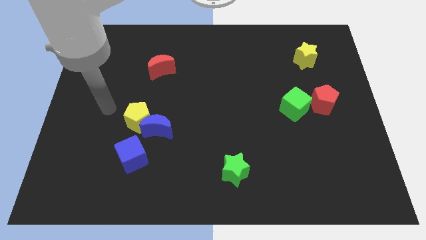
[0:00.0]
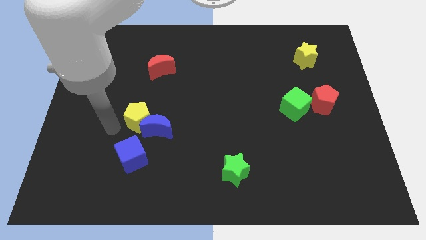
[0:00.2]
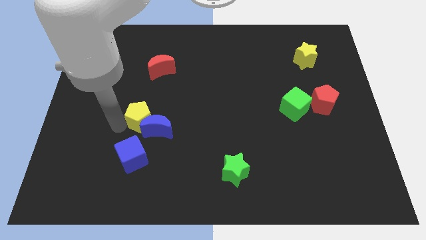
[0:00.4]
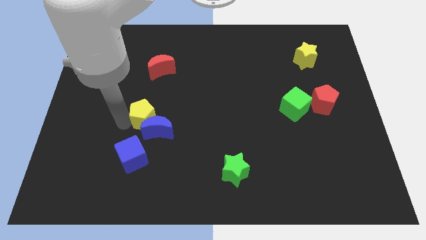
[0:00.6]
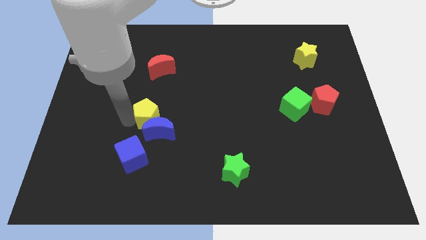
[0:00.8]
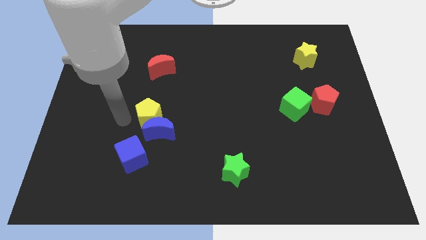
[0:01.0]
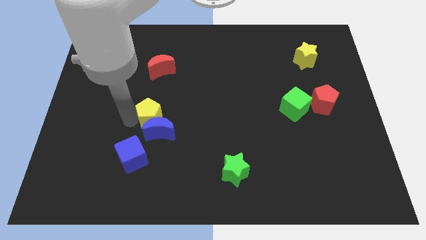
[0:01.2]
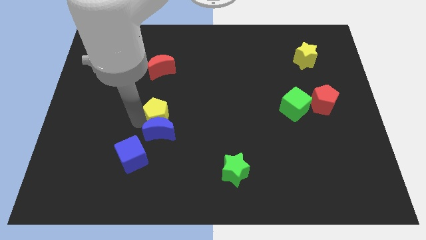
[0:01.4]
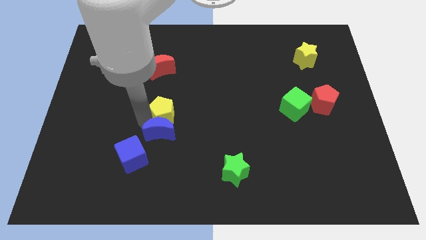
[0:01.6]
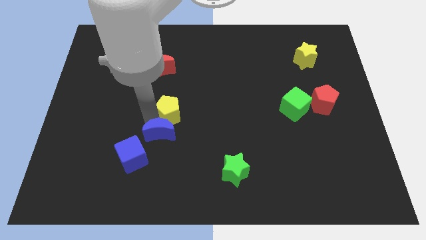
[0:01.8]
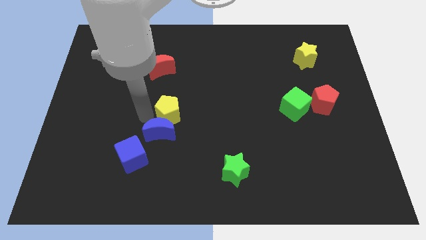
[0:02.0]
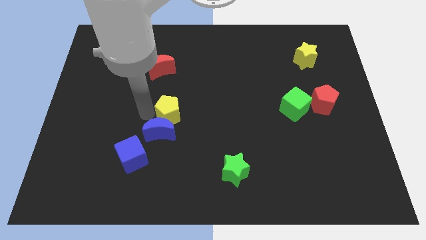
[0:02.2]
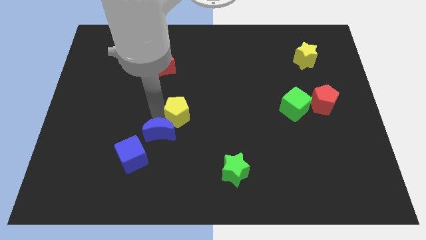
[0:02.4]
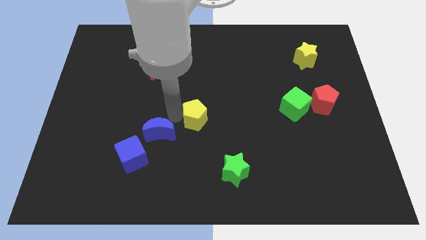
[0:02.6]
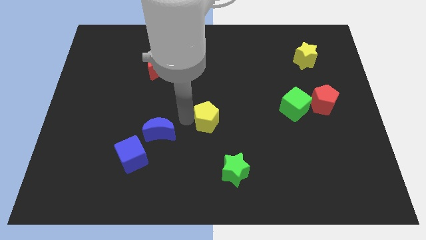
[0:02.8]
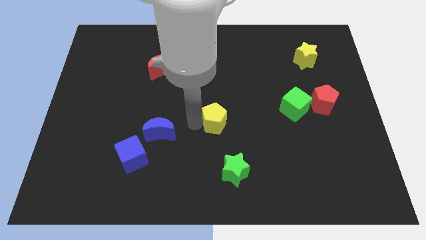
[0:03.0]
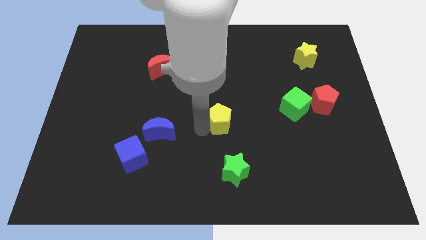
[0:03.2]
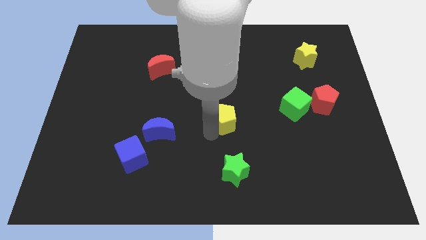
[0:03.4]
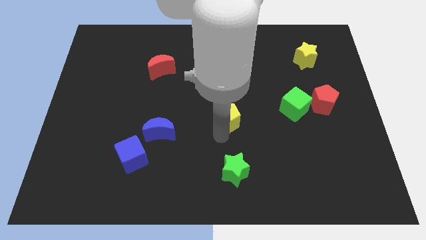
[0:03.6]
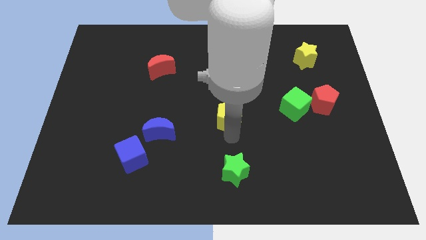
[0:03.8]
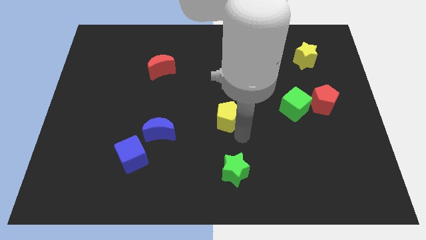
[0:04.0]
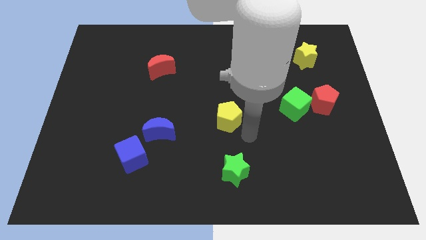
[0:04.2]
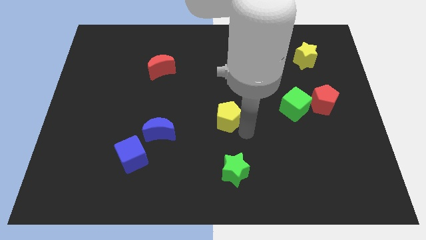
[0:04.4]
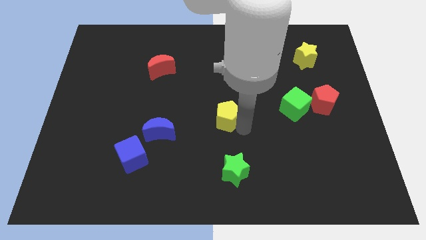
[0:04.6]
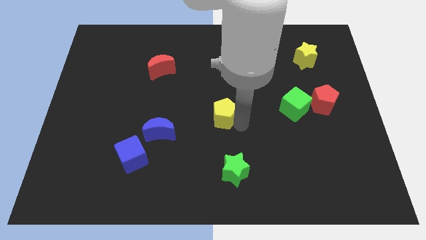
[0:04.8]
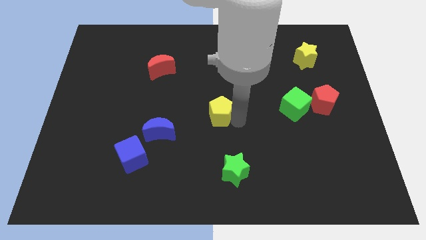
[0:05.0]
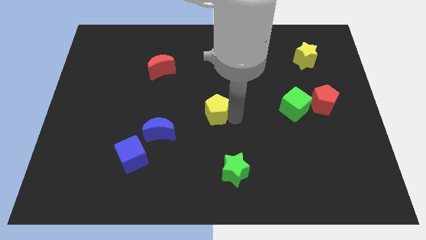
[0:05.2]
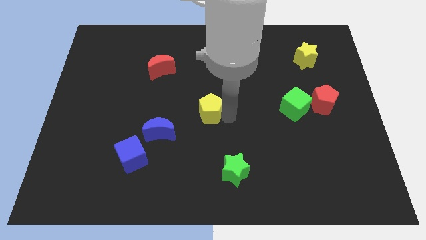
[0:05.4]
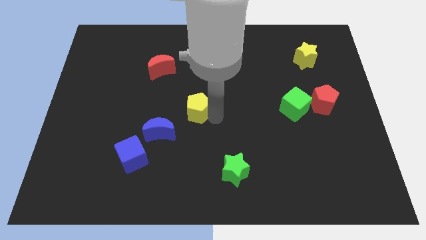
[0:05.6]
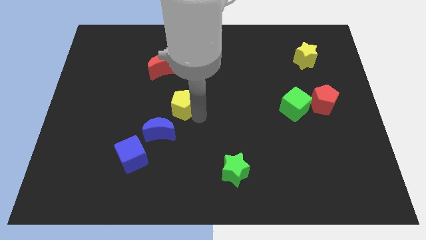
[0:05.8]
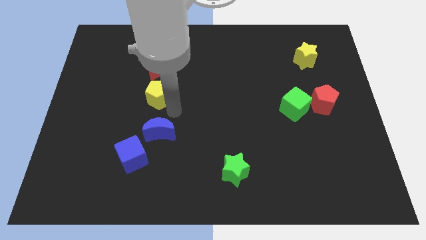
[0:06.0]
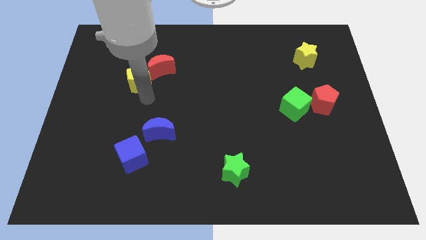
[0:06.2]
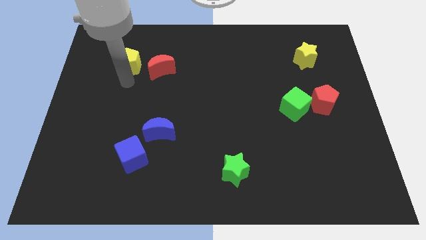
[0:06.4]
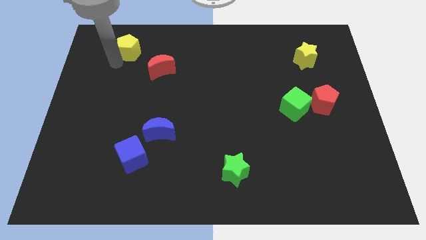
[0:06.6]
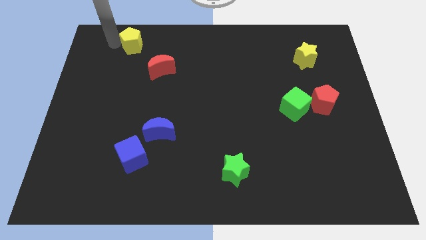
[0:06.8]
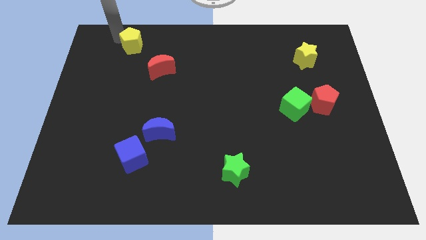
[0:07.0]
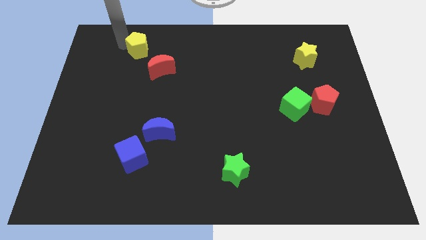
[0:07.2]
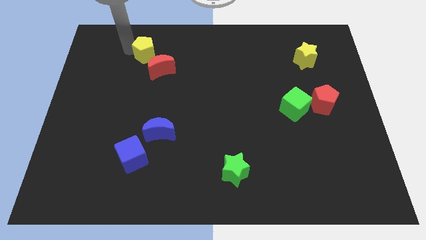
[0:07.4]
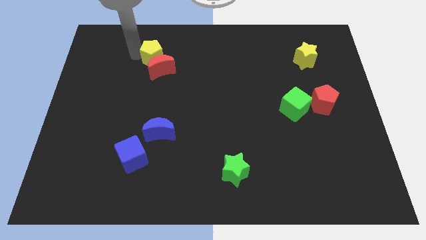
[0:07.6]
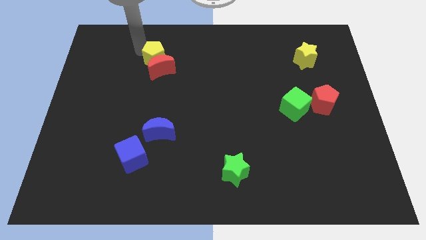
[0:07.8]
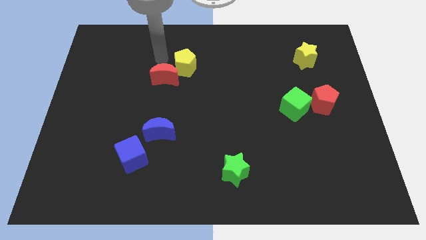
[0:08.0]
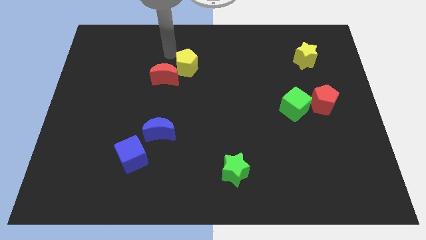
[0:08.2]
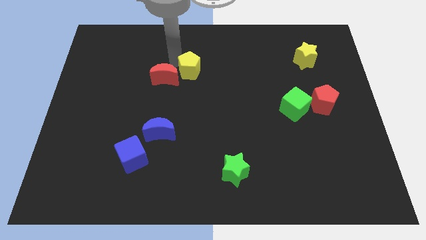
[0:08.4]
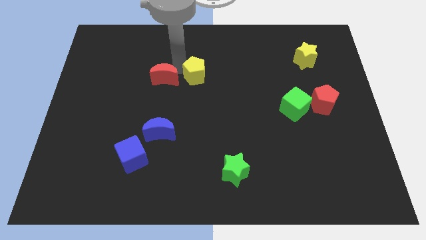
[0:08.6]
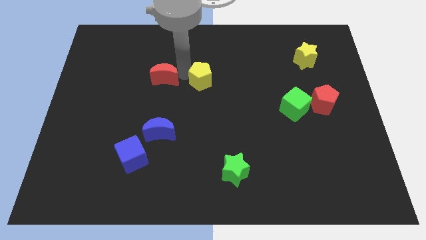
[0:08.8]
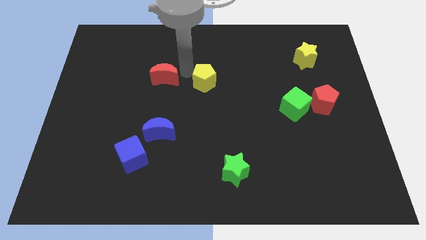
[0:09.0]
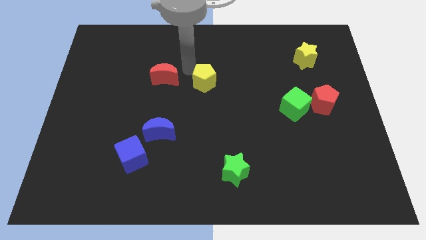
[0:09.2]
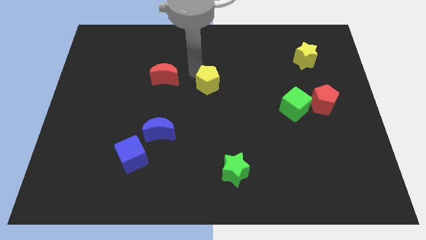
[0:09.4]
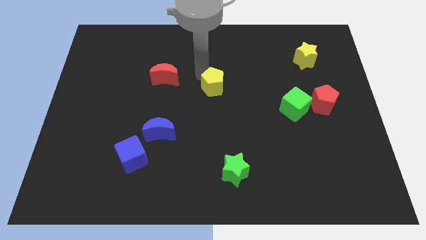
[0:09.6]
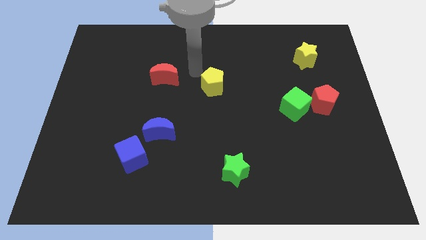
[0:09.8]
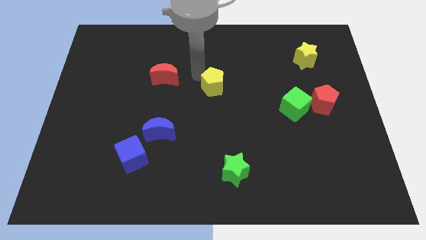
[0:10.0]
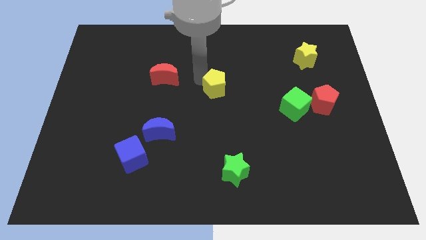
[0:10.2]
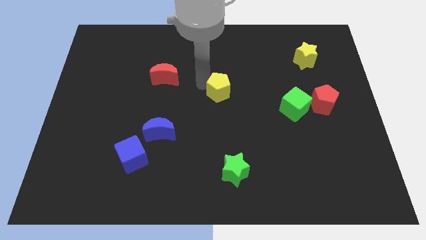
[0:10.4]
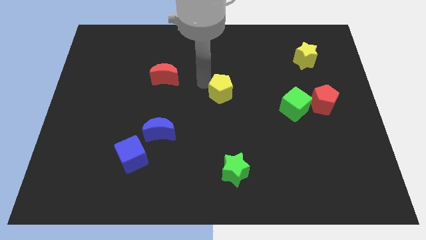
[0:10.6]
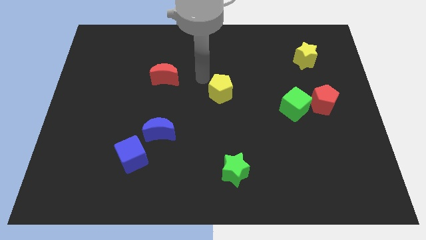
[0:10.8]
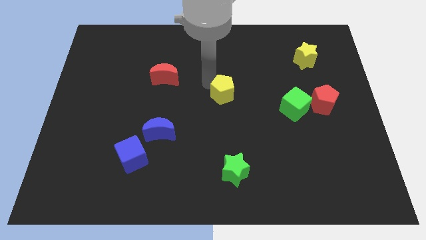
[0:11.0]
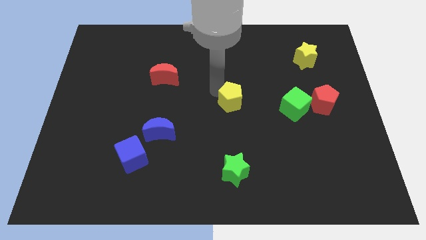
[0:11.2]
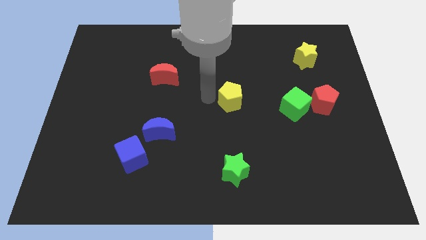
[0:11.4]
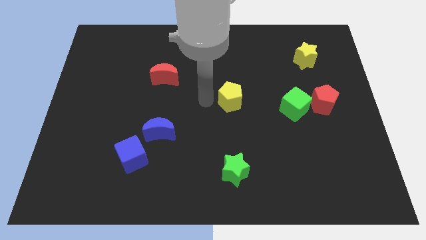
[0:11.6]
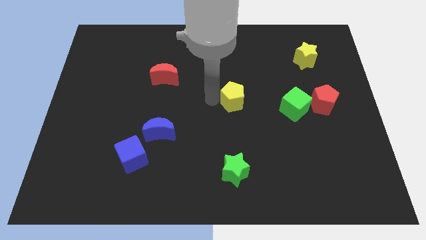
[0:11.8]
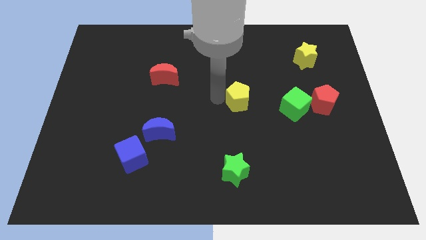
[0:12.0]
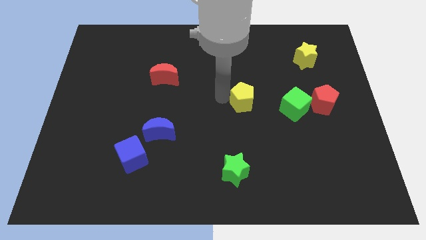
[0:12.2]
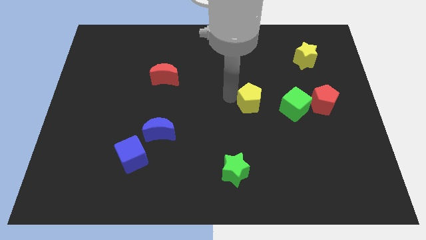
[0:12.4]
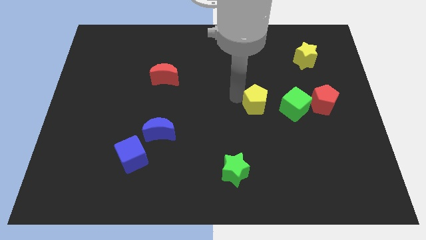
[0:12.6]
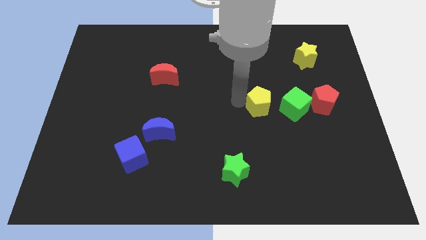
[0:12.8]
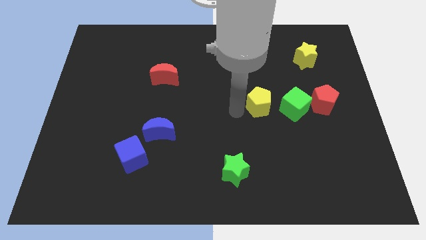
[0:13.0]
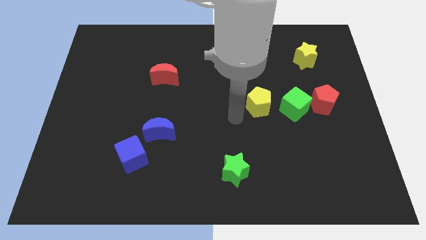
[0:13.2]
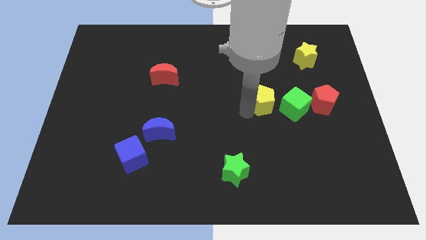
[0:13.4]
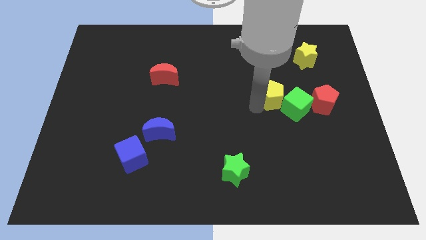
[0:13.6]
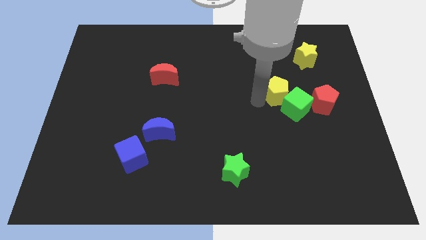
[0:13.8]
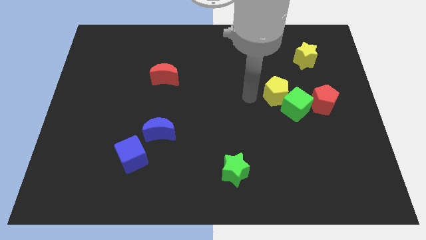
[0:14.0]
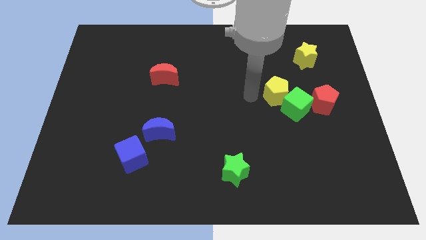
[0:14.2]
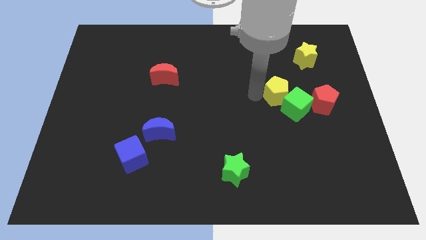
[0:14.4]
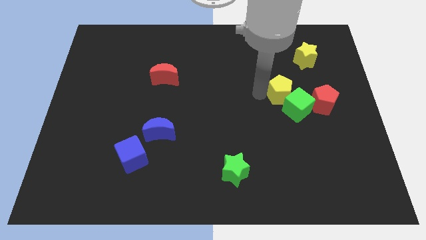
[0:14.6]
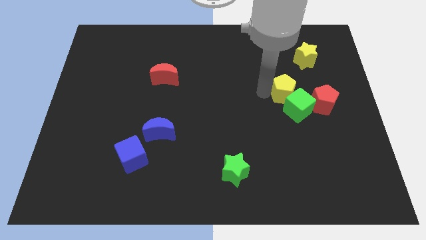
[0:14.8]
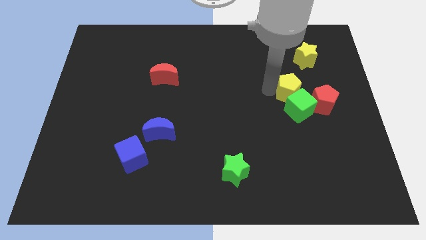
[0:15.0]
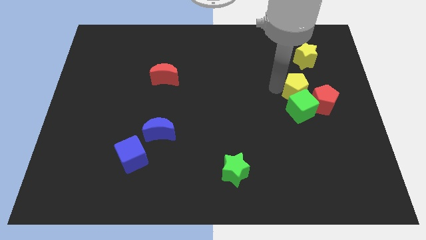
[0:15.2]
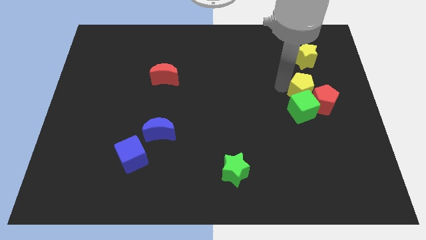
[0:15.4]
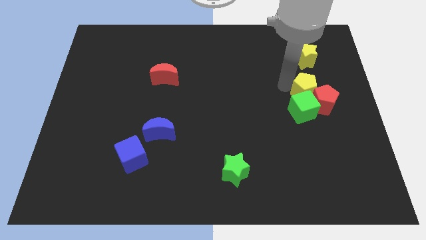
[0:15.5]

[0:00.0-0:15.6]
put the yellow pentagon towards the red pentagon
